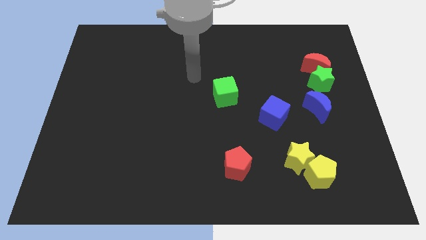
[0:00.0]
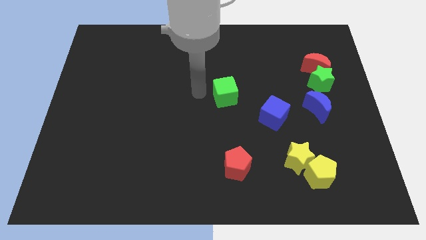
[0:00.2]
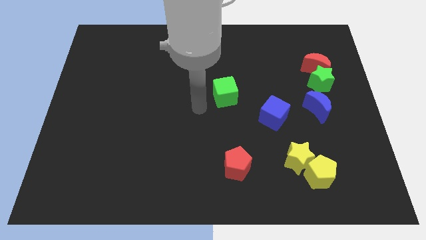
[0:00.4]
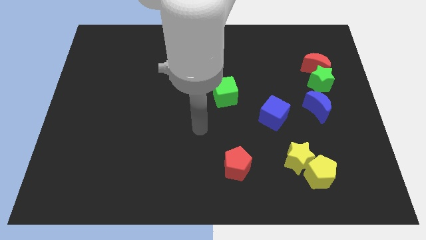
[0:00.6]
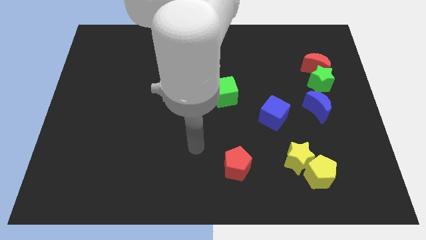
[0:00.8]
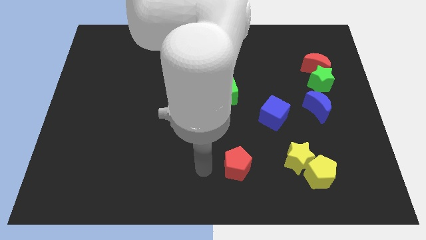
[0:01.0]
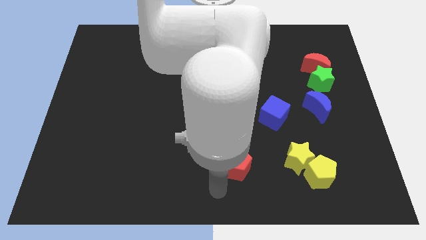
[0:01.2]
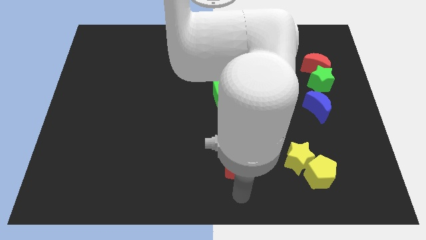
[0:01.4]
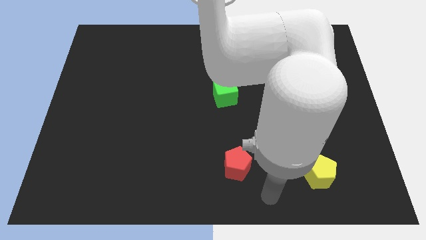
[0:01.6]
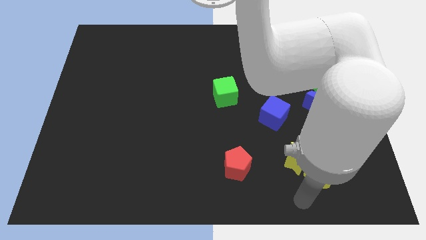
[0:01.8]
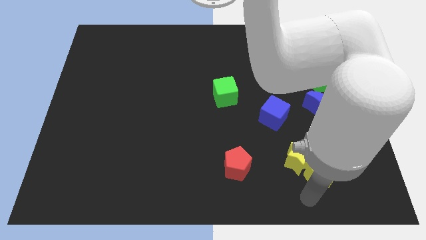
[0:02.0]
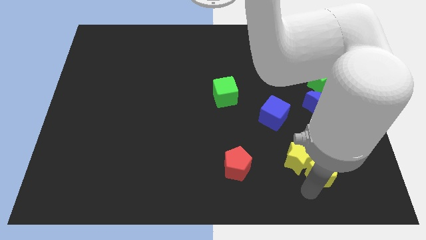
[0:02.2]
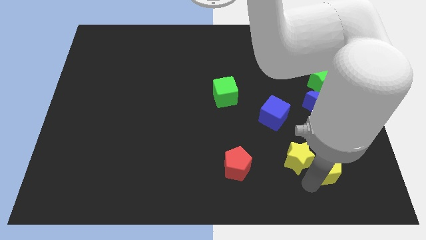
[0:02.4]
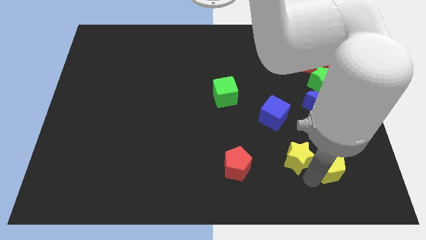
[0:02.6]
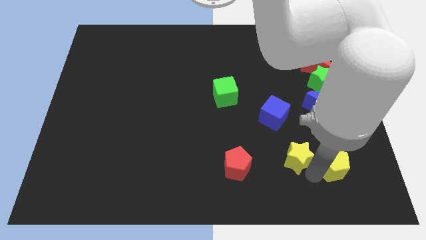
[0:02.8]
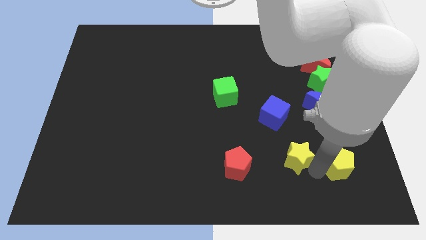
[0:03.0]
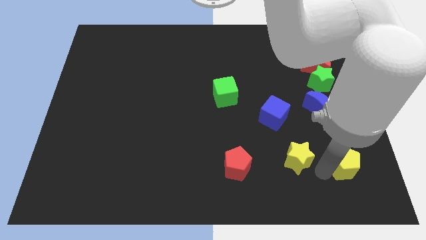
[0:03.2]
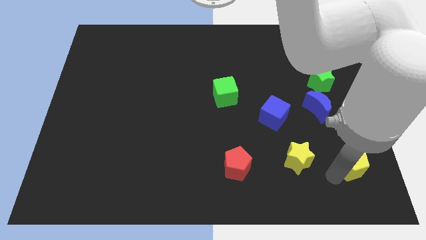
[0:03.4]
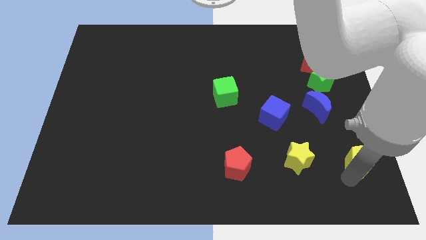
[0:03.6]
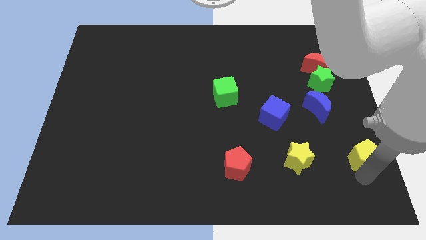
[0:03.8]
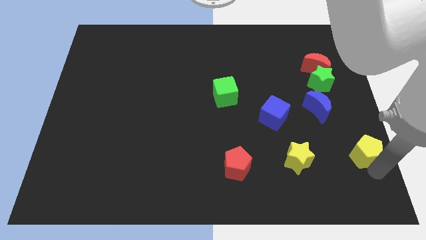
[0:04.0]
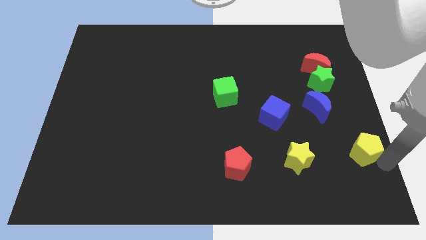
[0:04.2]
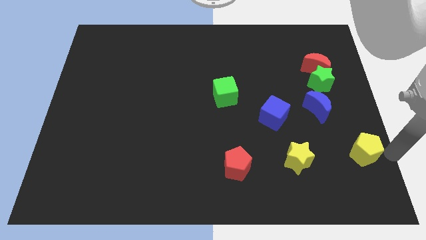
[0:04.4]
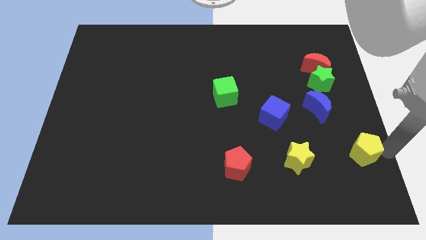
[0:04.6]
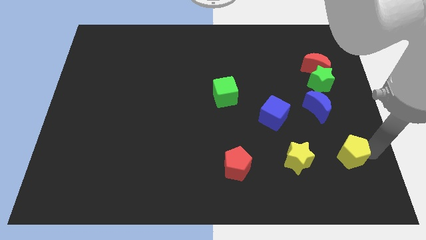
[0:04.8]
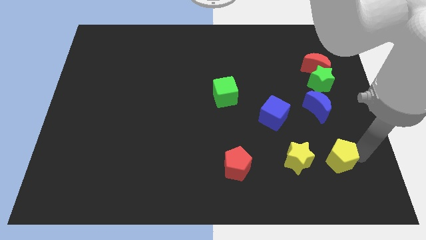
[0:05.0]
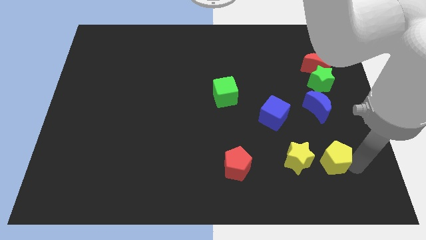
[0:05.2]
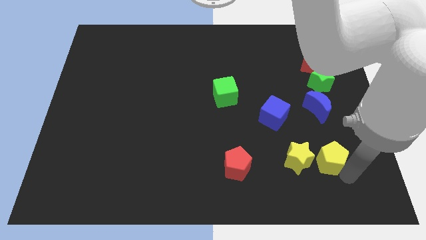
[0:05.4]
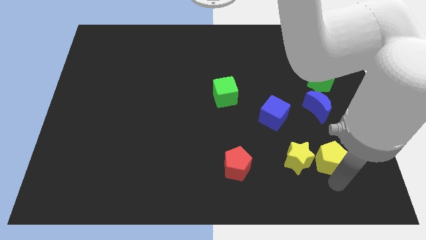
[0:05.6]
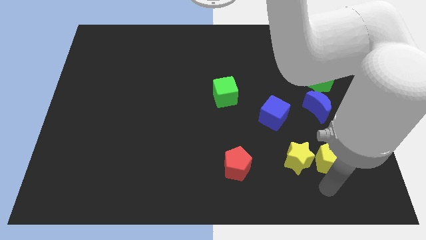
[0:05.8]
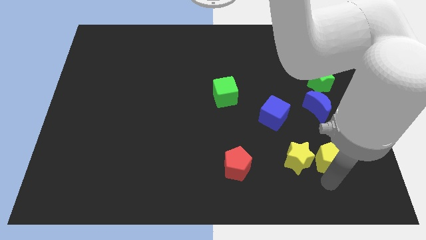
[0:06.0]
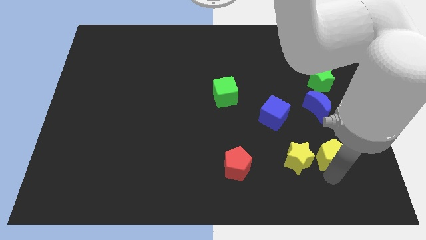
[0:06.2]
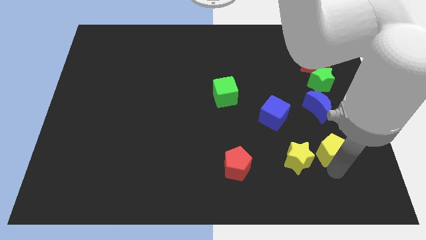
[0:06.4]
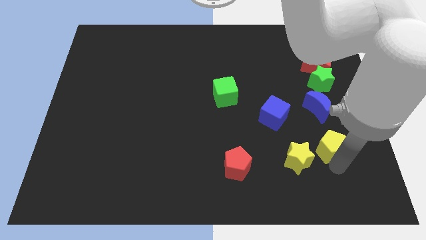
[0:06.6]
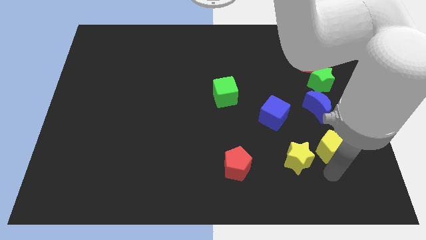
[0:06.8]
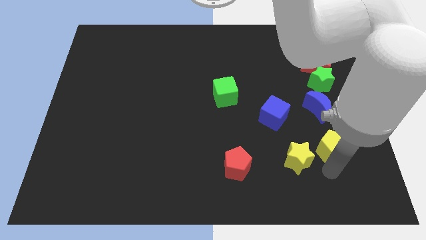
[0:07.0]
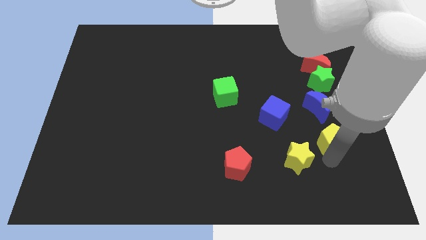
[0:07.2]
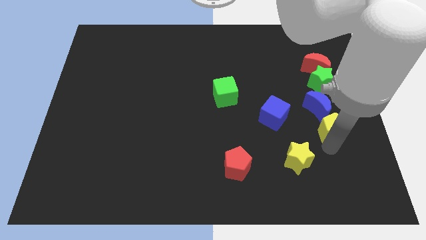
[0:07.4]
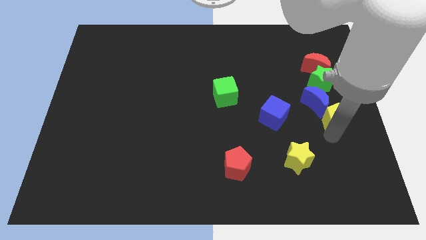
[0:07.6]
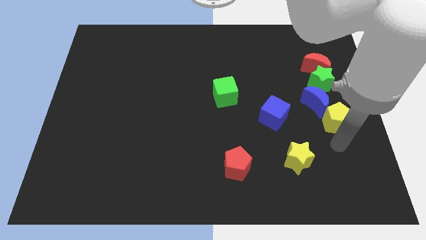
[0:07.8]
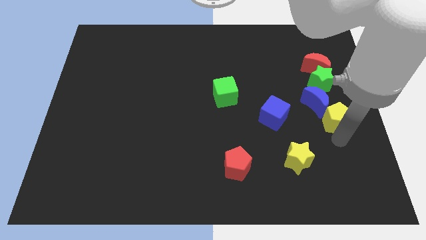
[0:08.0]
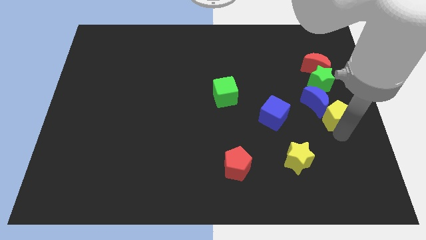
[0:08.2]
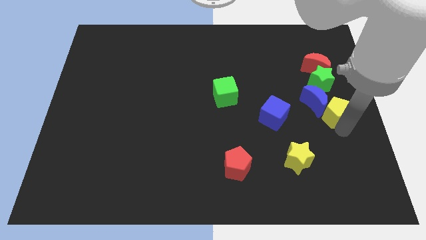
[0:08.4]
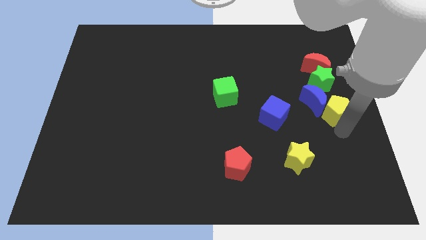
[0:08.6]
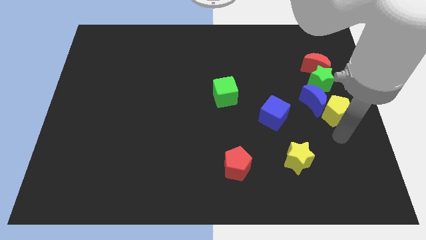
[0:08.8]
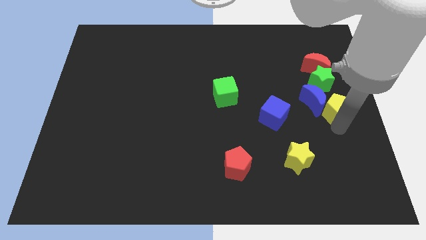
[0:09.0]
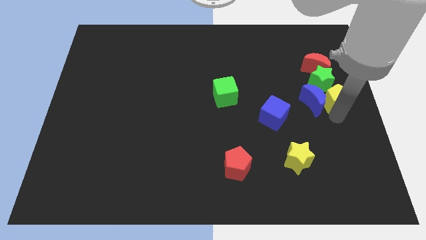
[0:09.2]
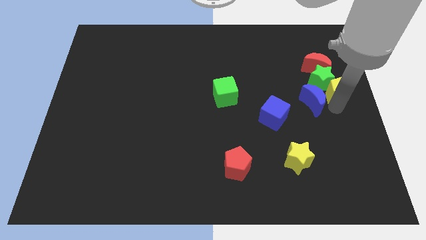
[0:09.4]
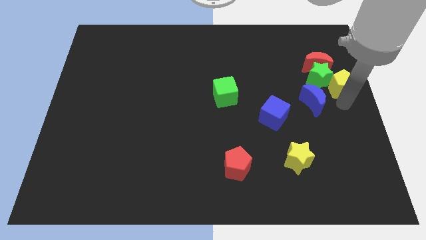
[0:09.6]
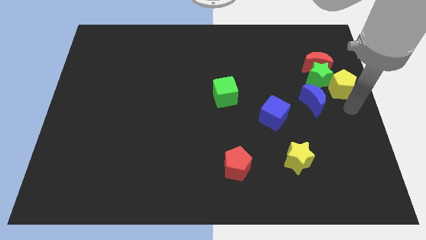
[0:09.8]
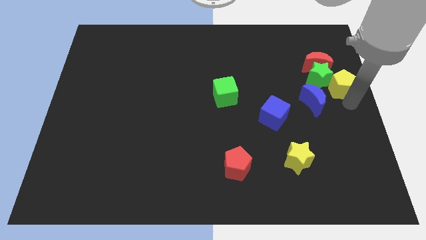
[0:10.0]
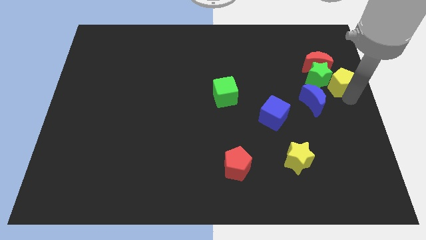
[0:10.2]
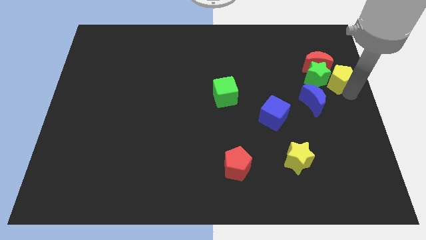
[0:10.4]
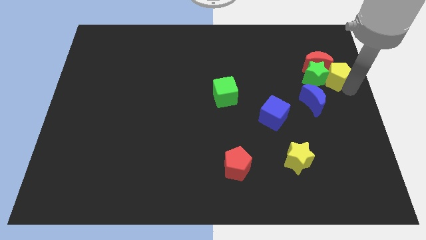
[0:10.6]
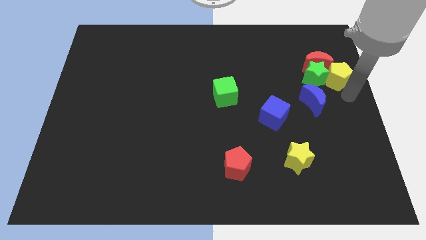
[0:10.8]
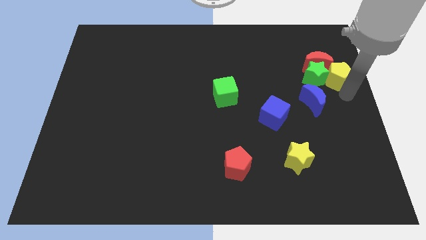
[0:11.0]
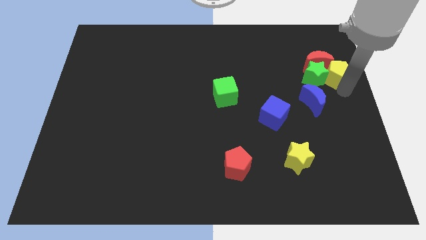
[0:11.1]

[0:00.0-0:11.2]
slide the yellow pentagon close to the red moon

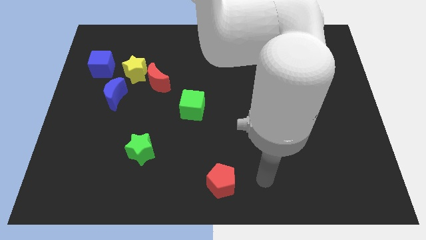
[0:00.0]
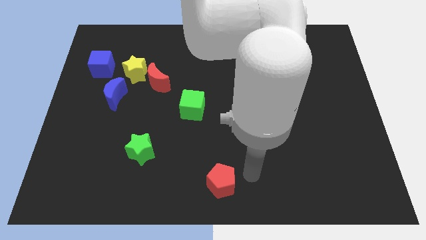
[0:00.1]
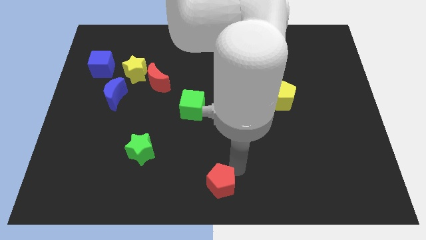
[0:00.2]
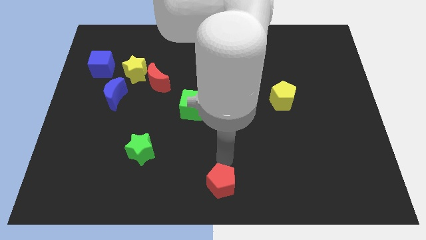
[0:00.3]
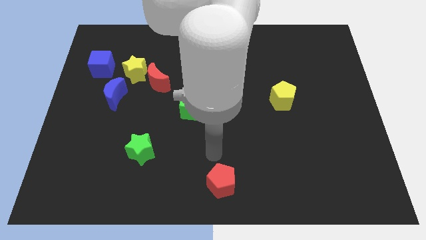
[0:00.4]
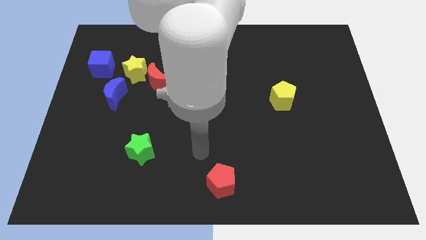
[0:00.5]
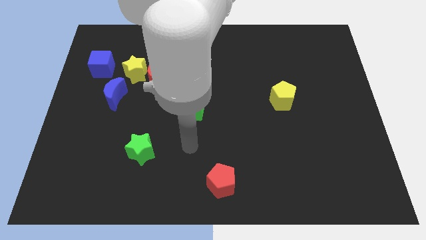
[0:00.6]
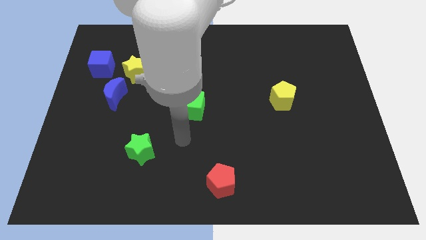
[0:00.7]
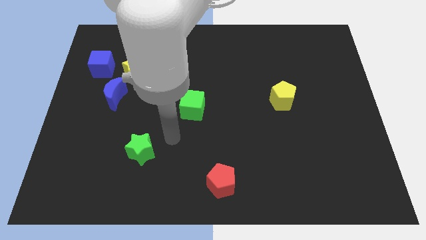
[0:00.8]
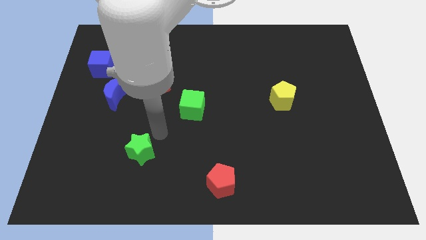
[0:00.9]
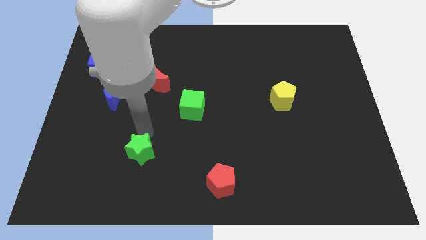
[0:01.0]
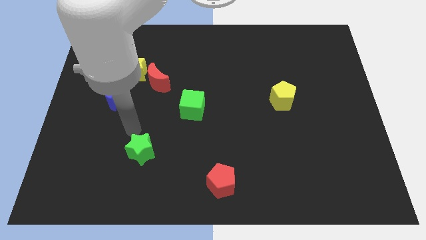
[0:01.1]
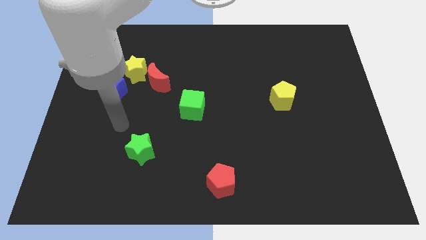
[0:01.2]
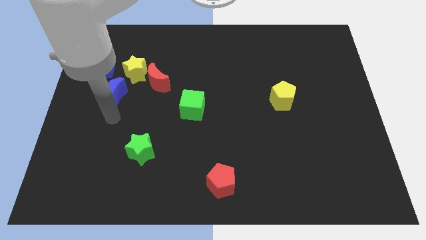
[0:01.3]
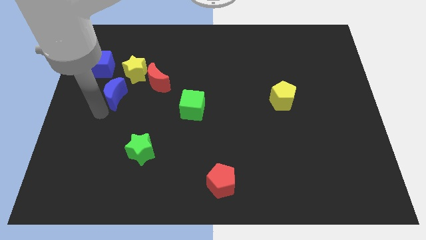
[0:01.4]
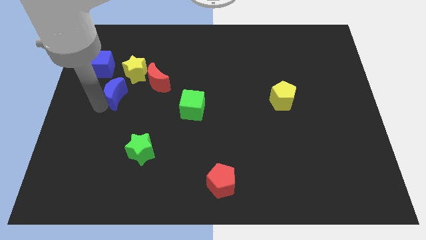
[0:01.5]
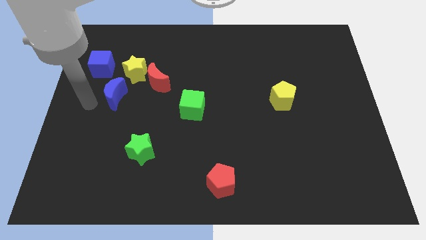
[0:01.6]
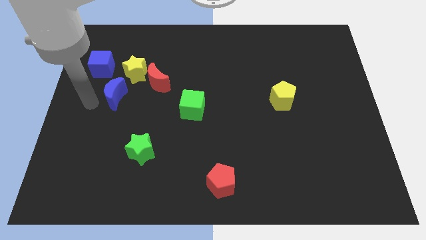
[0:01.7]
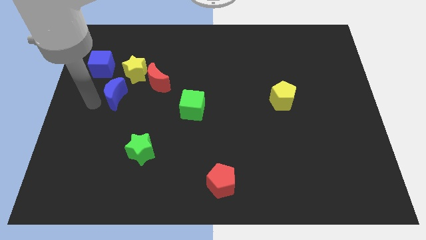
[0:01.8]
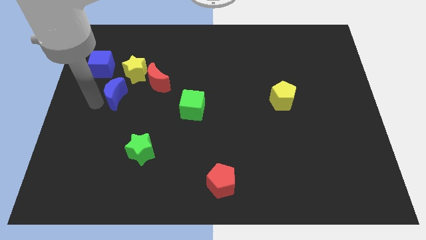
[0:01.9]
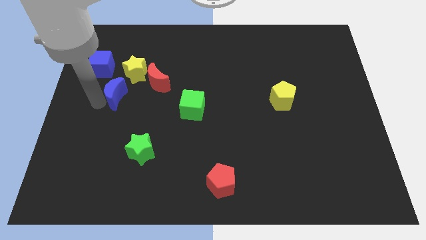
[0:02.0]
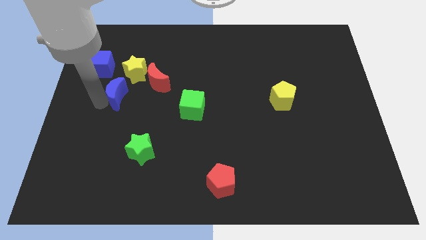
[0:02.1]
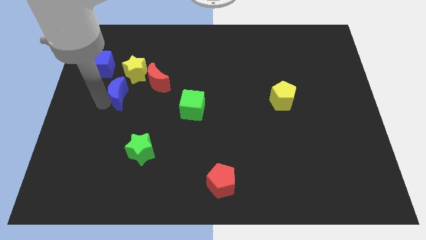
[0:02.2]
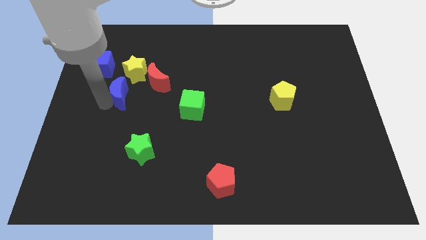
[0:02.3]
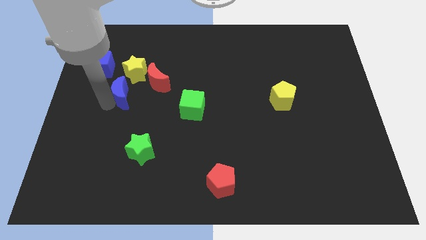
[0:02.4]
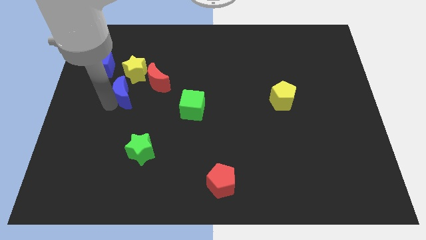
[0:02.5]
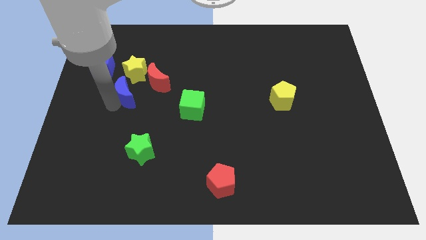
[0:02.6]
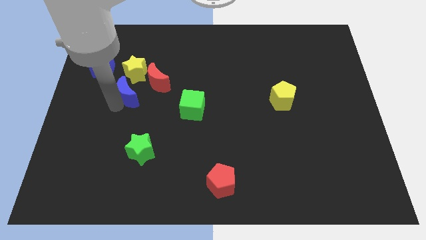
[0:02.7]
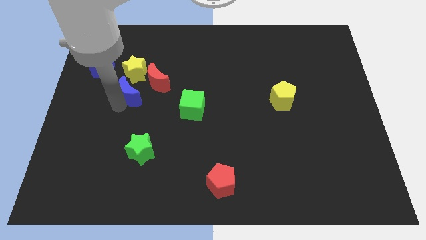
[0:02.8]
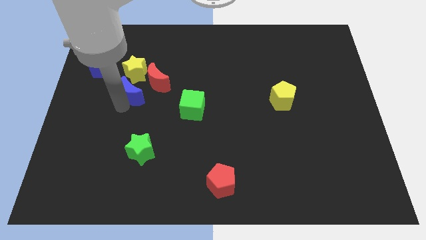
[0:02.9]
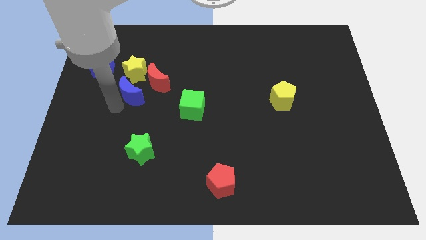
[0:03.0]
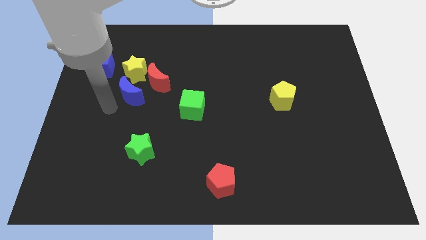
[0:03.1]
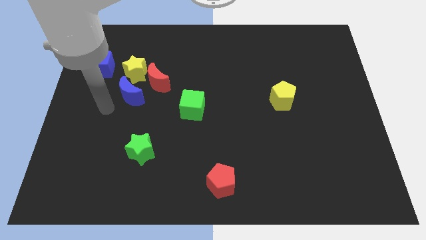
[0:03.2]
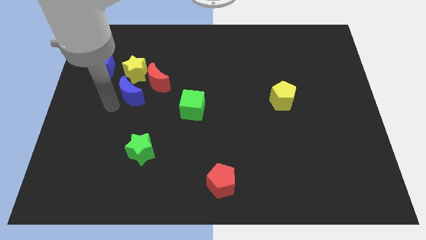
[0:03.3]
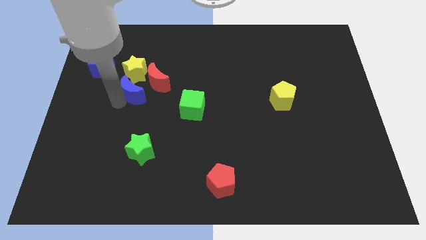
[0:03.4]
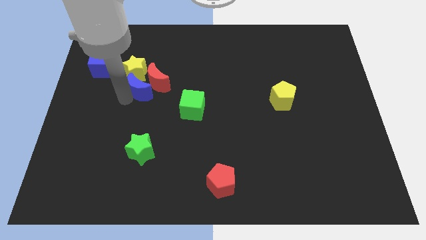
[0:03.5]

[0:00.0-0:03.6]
slide the blue moon to the red moon
